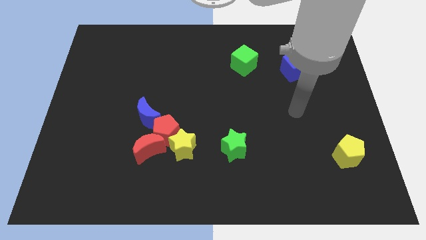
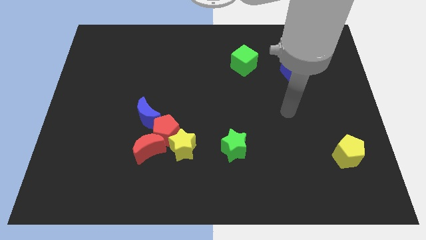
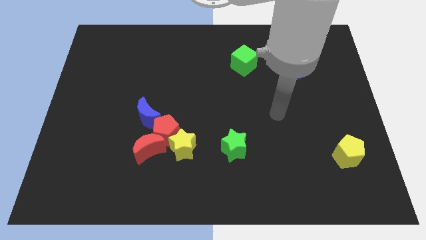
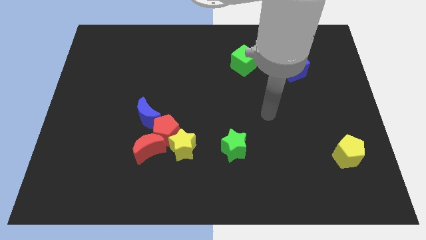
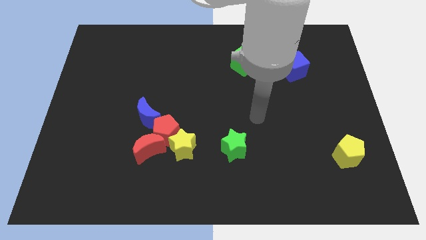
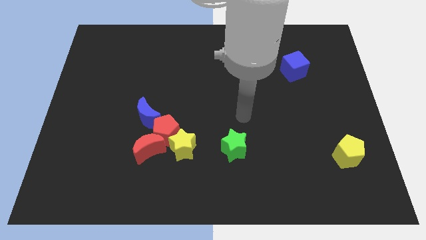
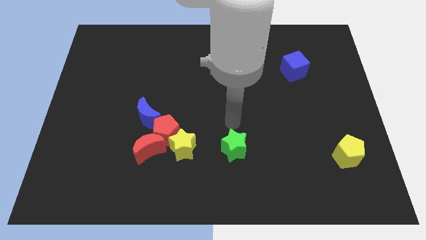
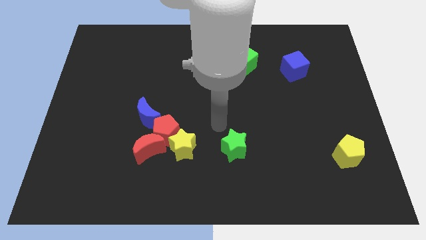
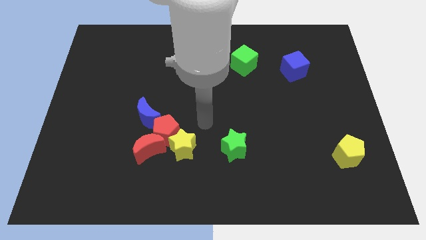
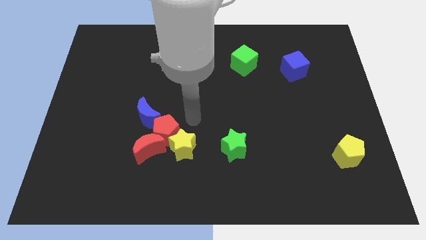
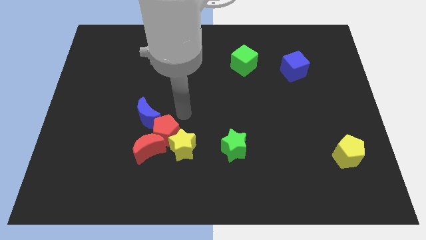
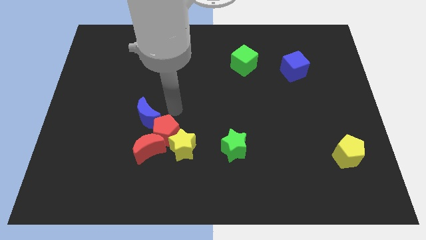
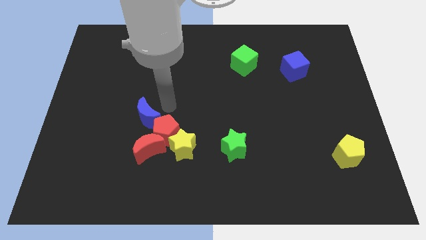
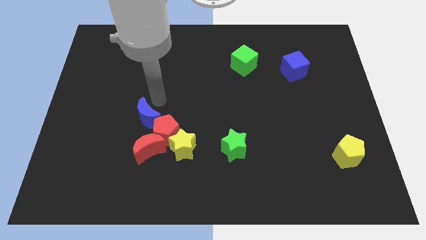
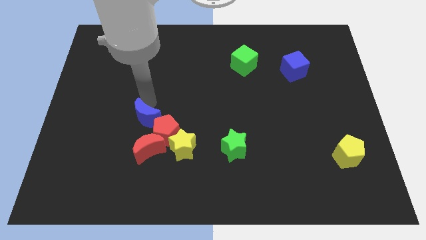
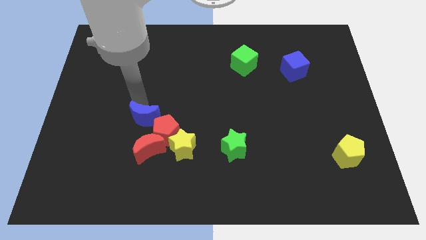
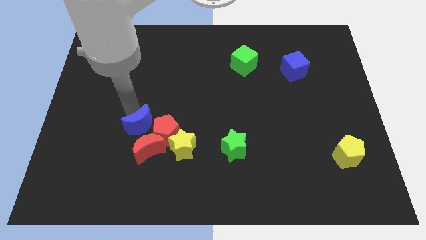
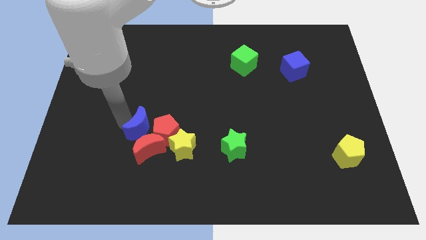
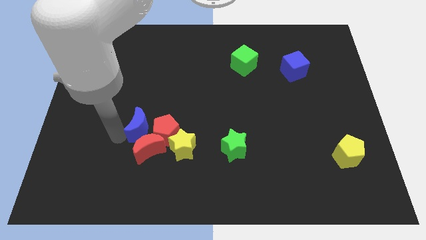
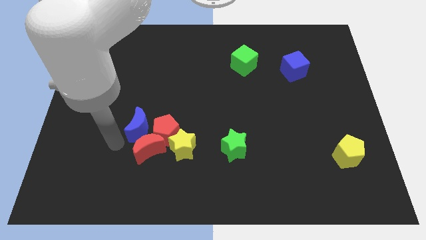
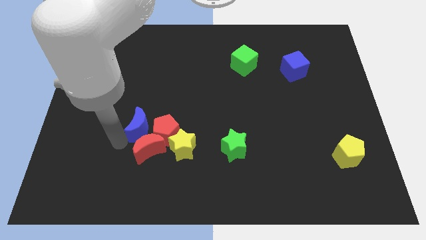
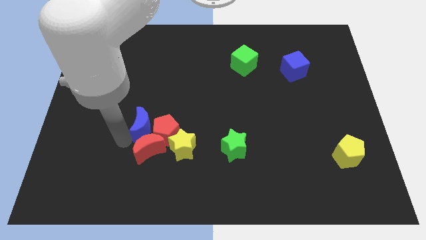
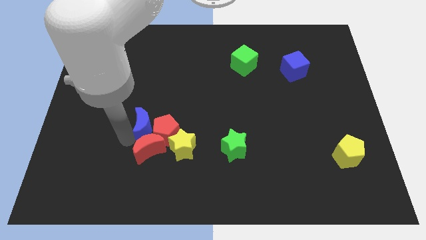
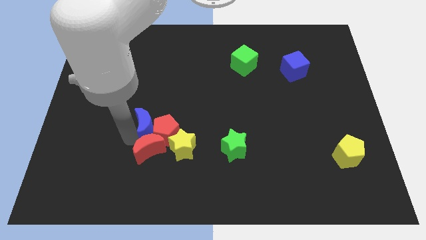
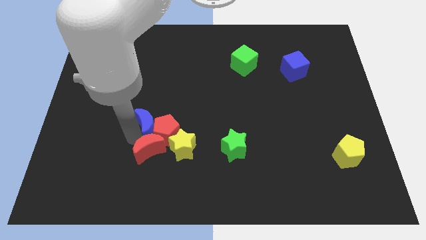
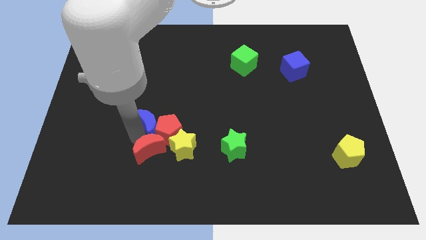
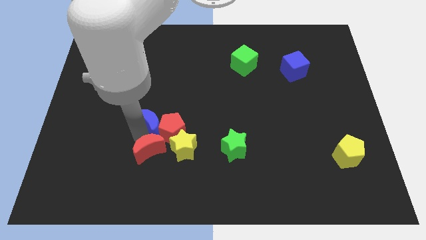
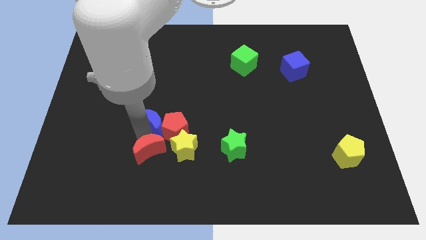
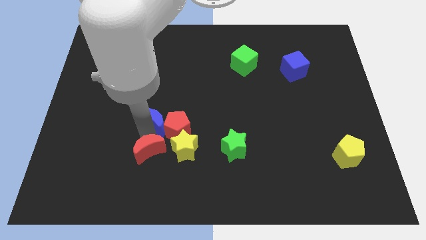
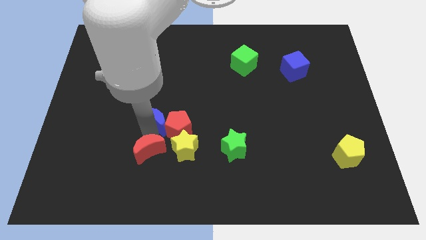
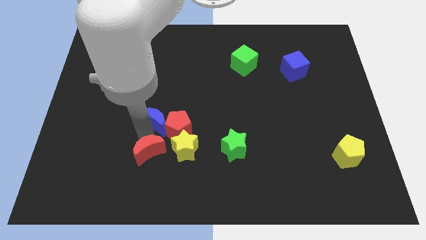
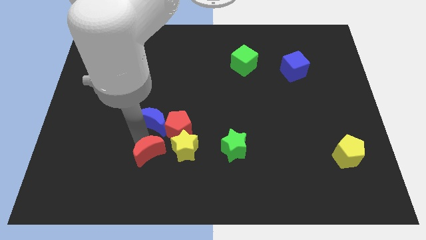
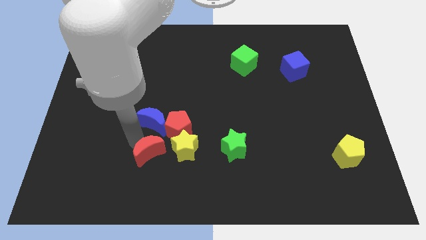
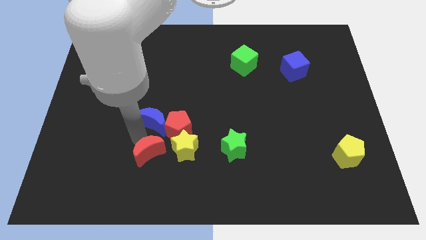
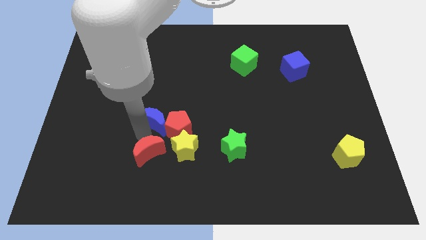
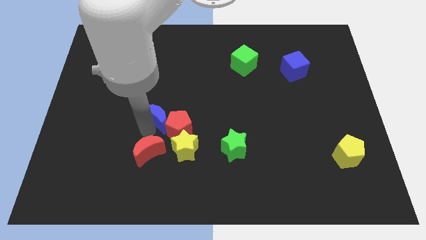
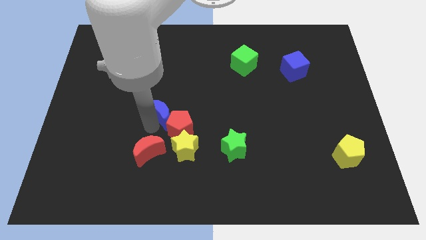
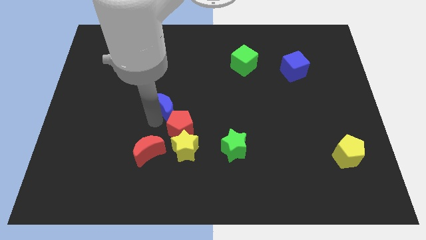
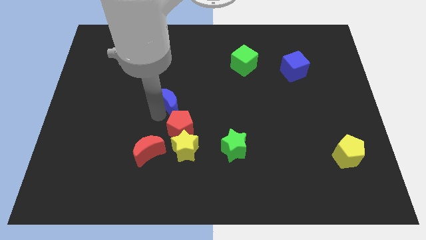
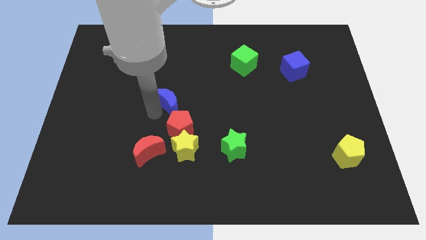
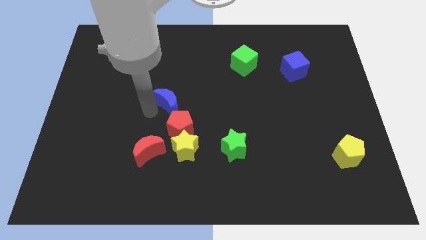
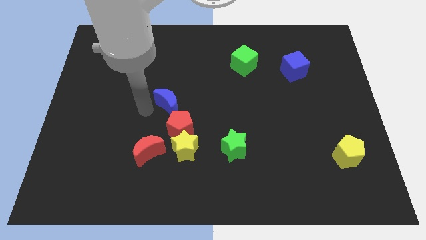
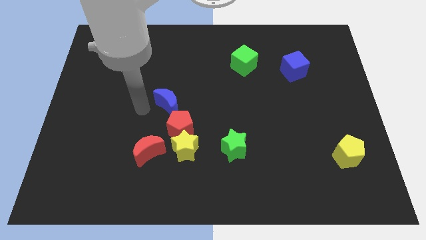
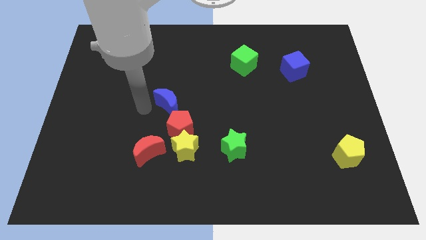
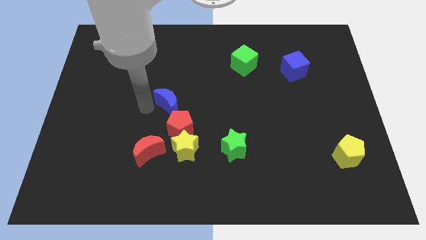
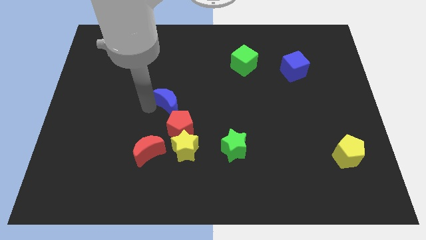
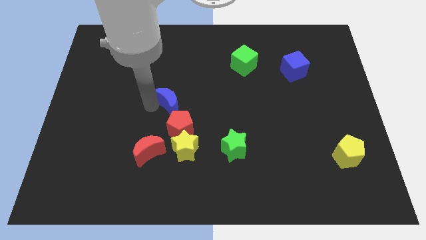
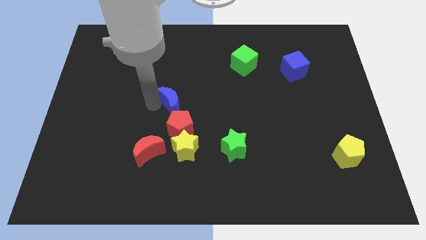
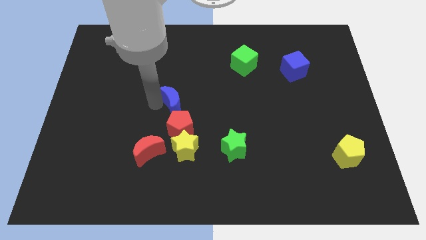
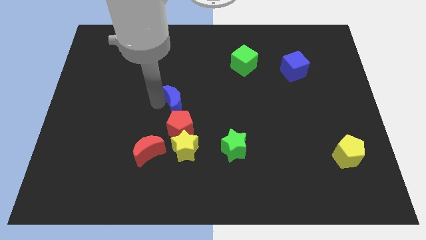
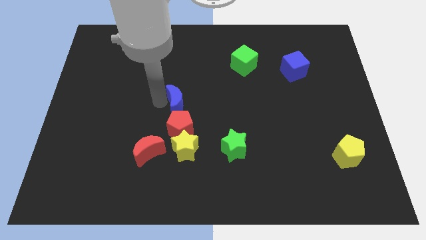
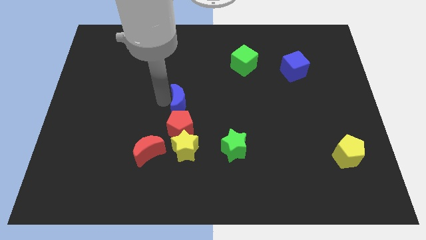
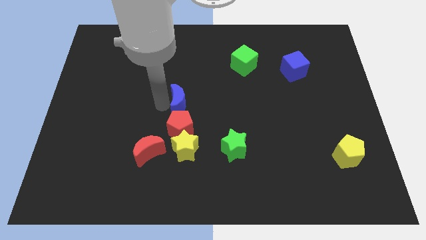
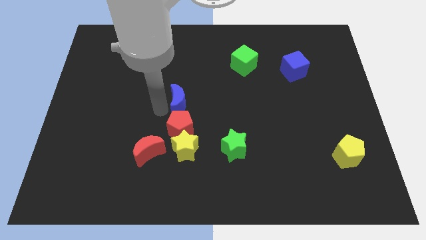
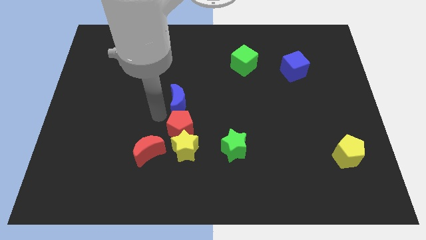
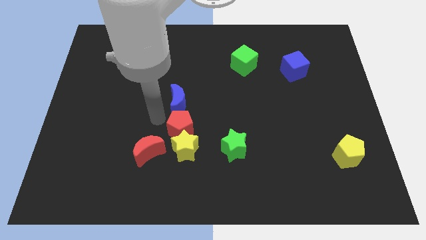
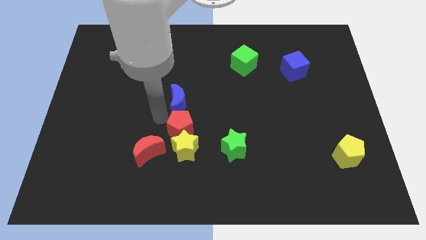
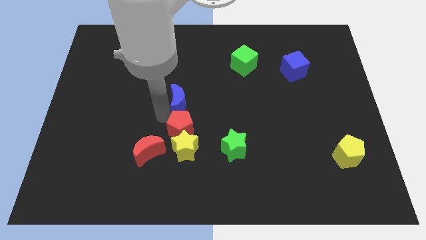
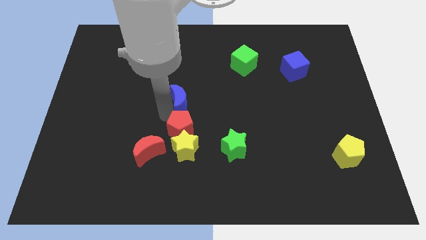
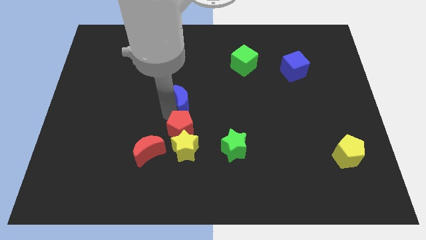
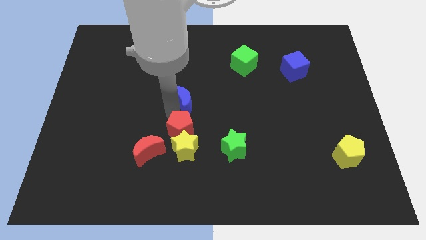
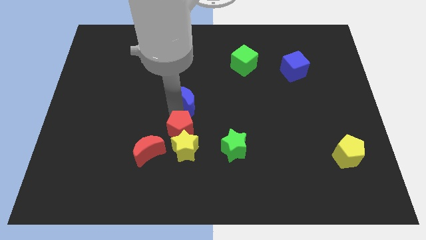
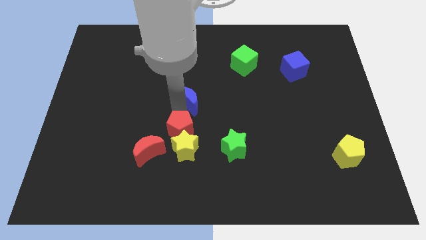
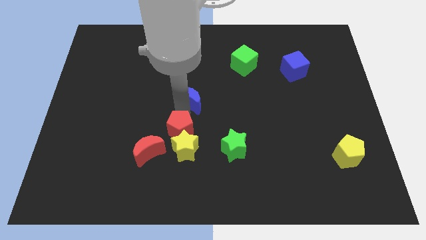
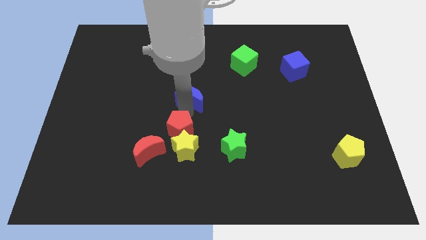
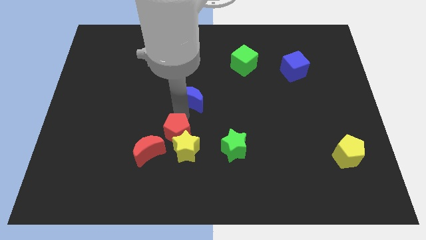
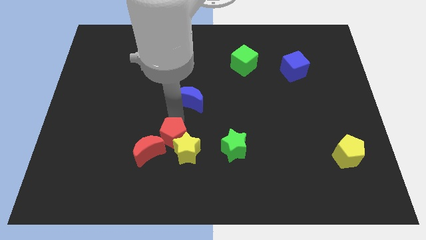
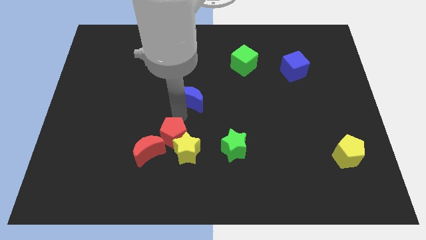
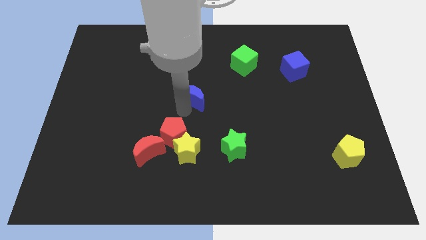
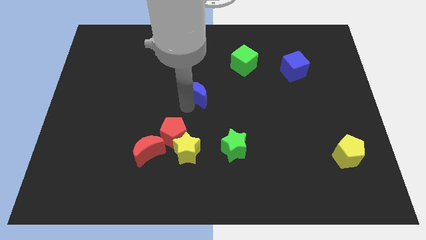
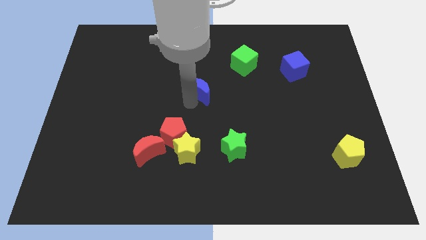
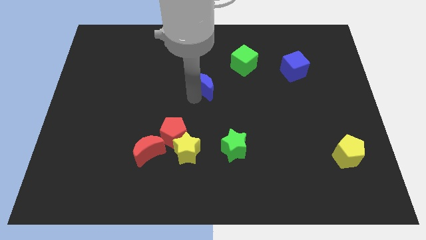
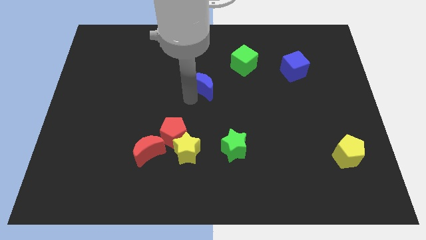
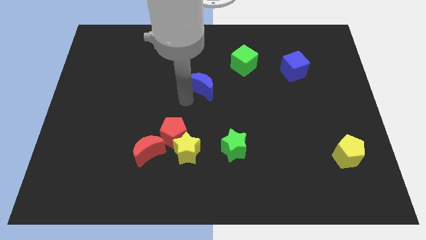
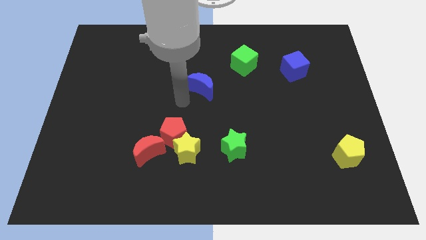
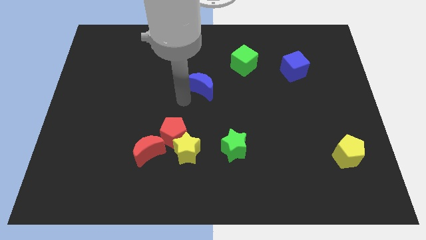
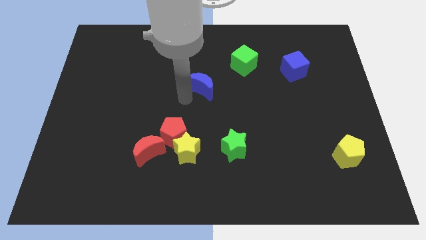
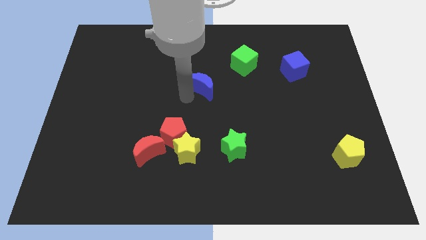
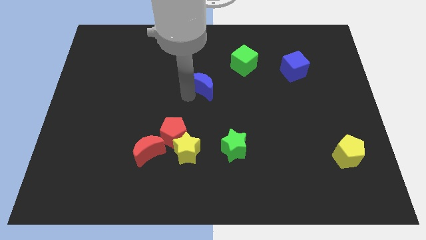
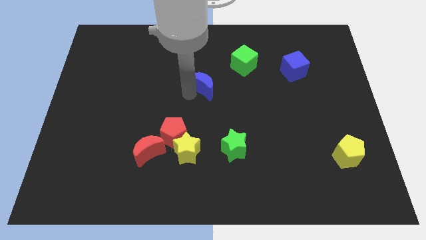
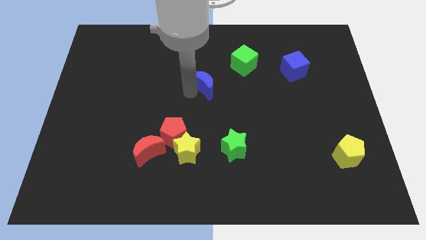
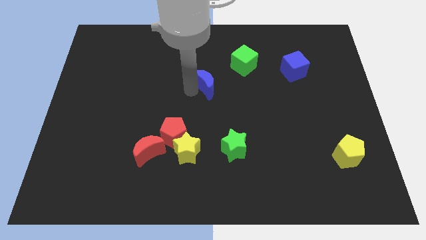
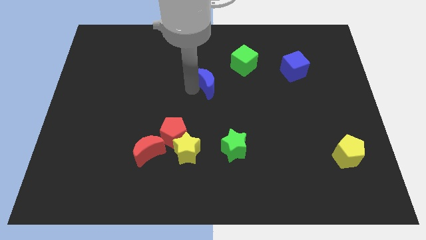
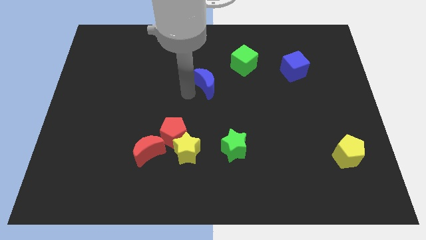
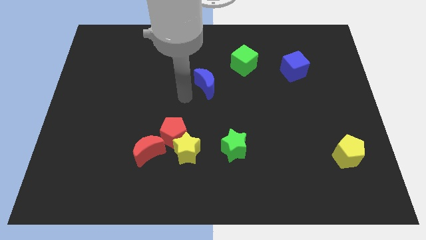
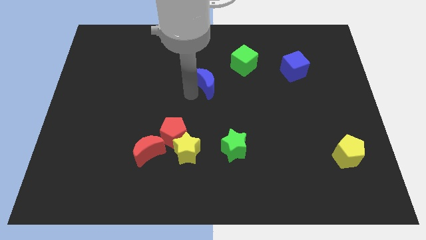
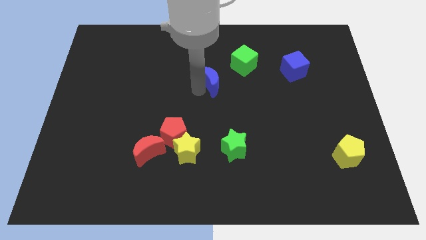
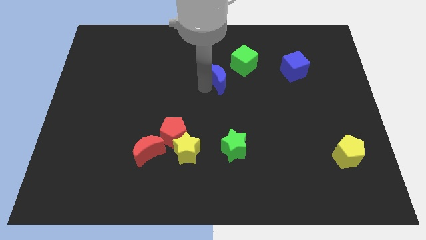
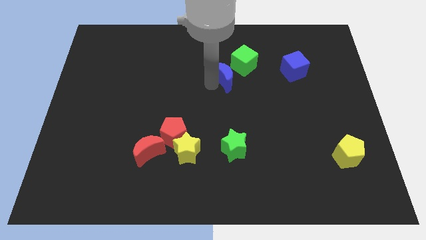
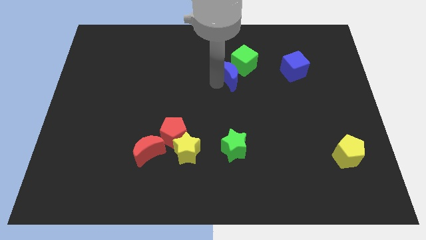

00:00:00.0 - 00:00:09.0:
put the blue moon to the green cube
